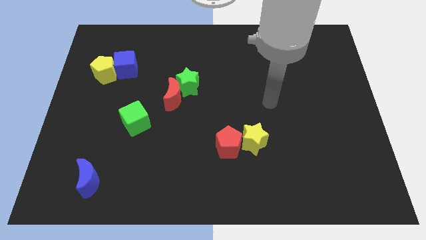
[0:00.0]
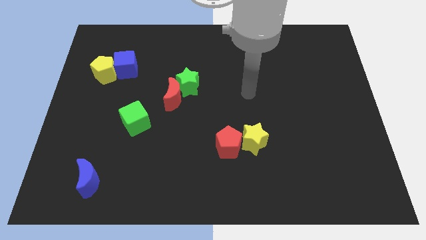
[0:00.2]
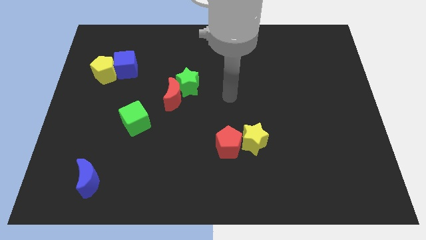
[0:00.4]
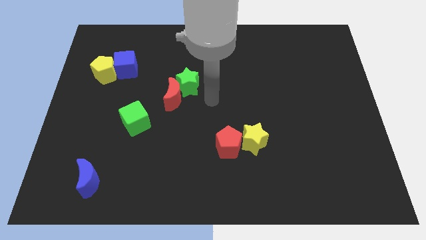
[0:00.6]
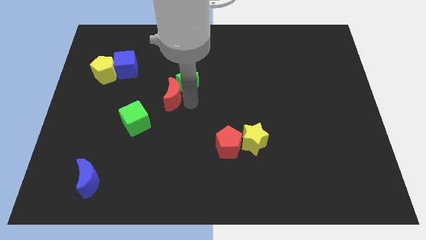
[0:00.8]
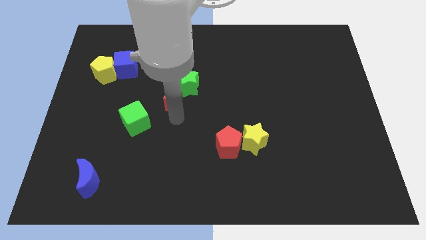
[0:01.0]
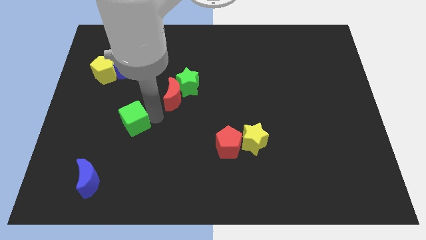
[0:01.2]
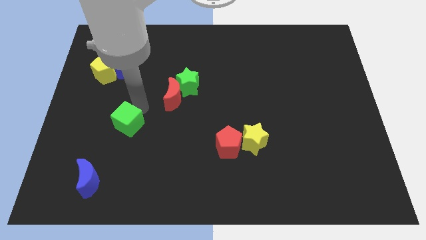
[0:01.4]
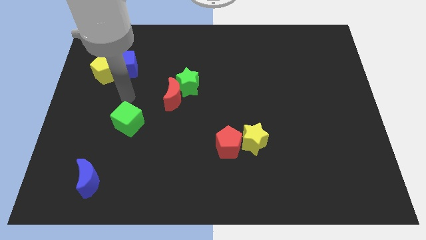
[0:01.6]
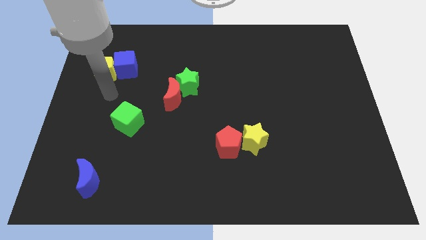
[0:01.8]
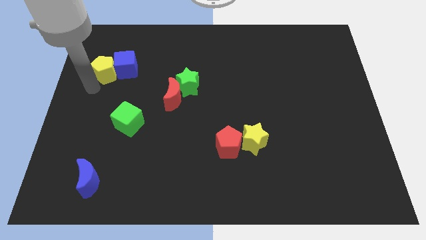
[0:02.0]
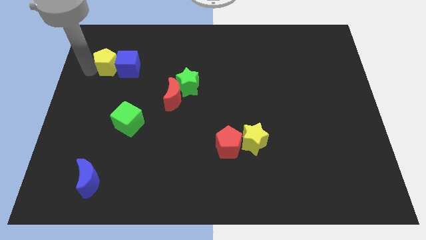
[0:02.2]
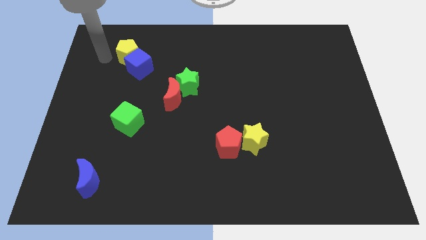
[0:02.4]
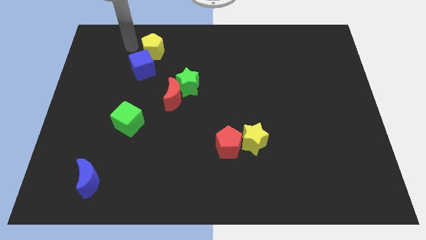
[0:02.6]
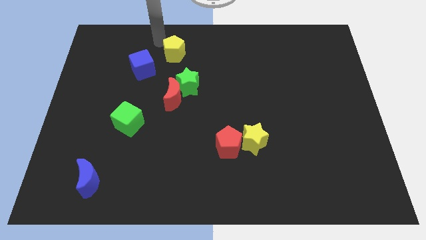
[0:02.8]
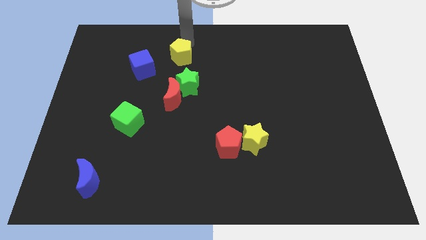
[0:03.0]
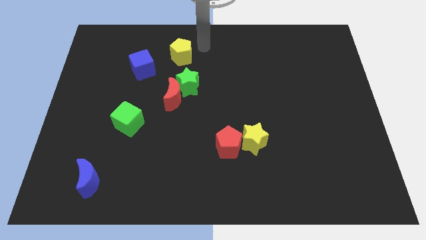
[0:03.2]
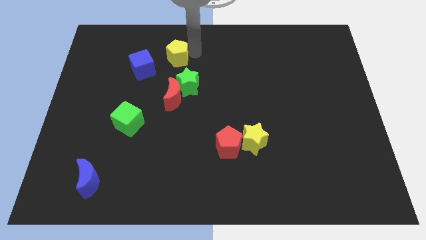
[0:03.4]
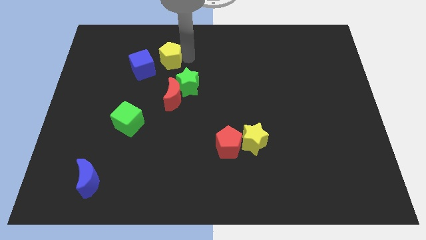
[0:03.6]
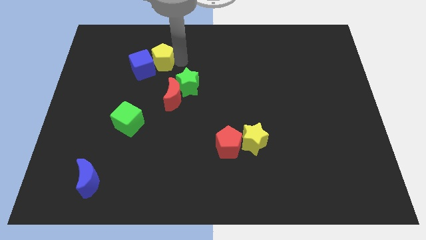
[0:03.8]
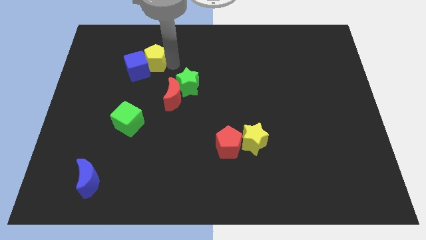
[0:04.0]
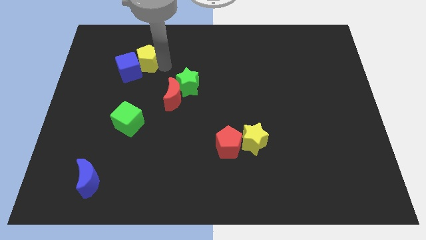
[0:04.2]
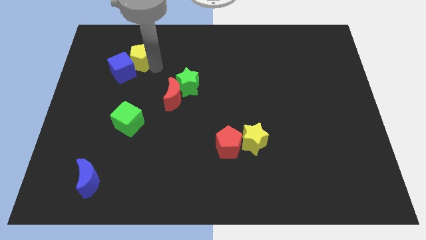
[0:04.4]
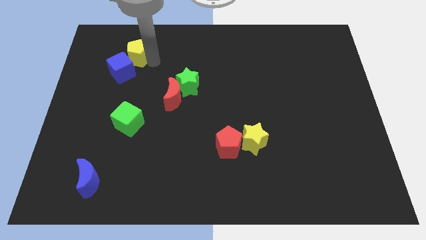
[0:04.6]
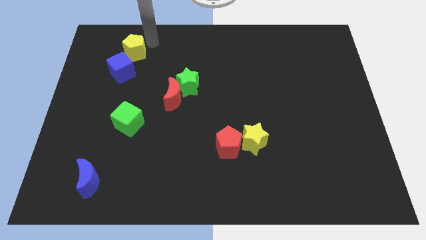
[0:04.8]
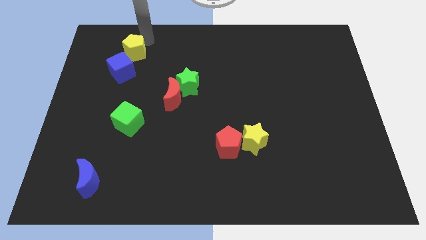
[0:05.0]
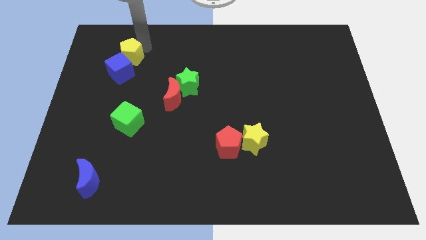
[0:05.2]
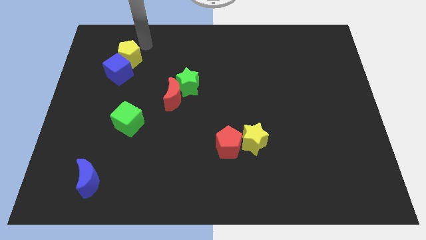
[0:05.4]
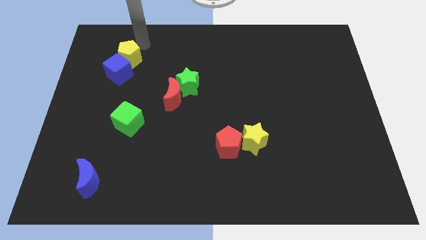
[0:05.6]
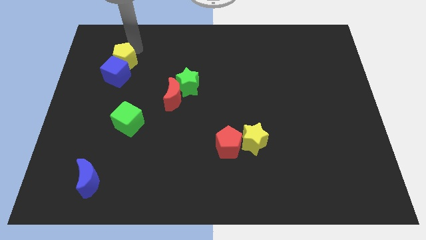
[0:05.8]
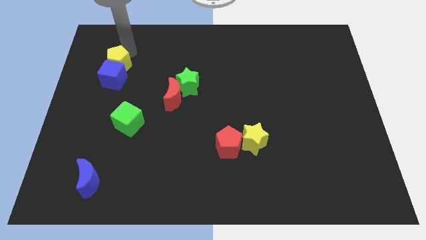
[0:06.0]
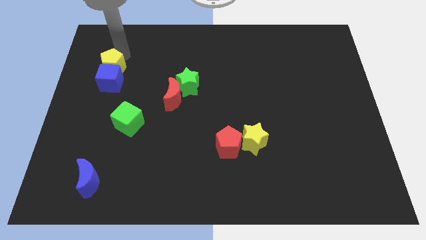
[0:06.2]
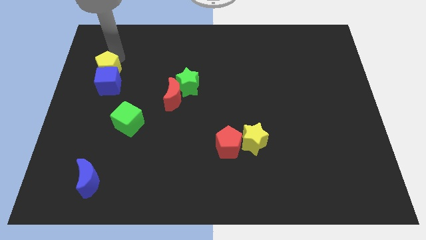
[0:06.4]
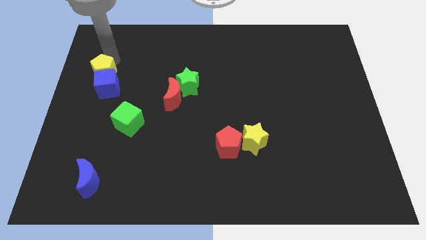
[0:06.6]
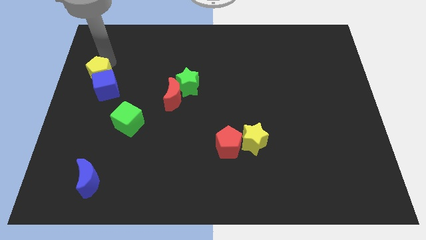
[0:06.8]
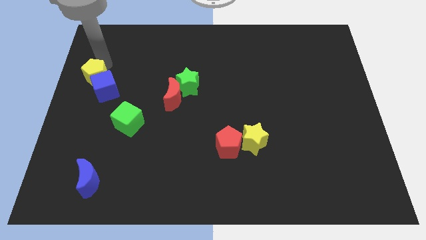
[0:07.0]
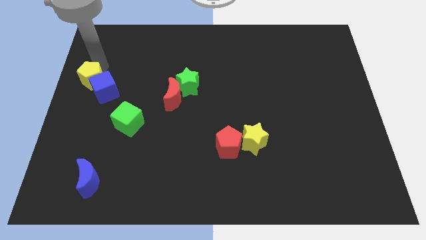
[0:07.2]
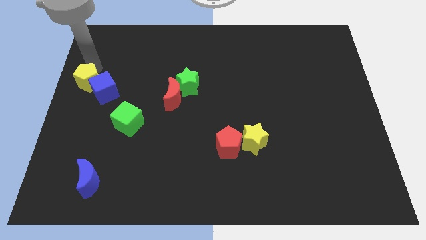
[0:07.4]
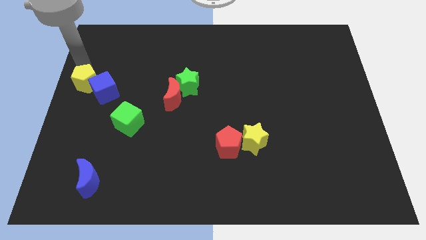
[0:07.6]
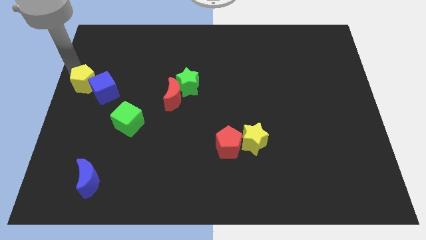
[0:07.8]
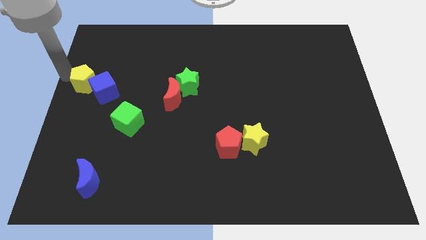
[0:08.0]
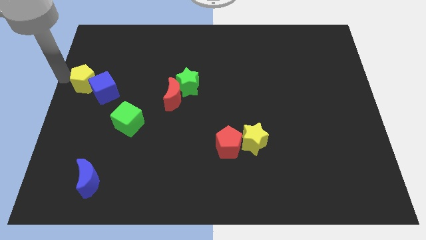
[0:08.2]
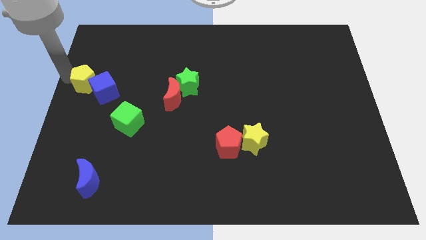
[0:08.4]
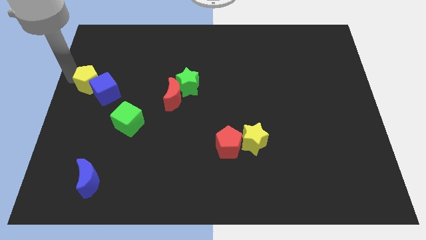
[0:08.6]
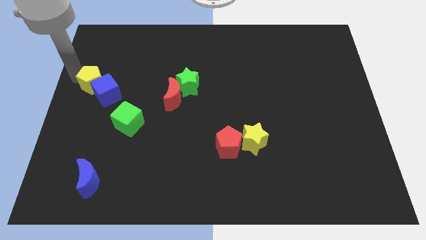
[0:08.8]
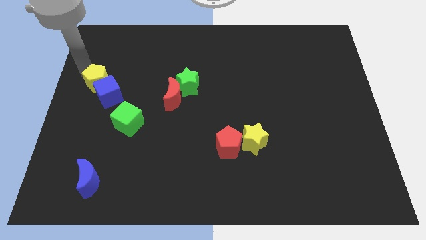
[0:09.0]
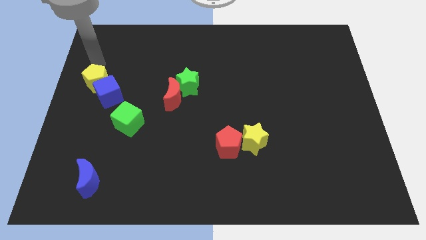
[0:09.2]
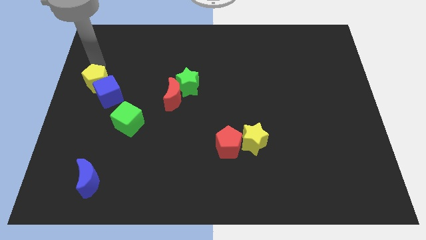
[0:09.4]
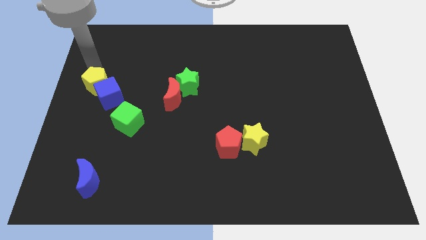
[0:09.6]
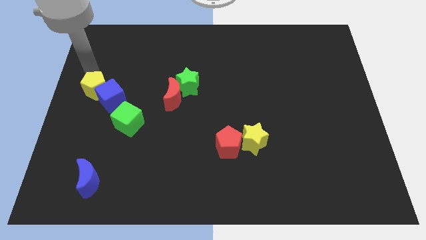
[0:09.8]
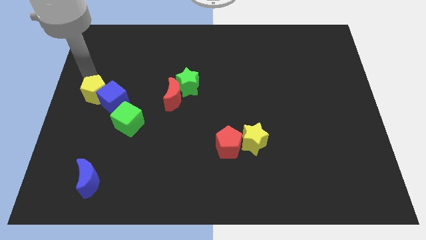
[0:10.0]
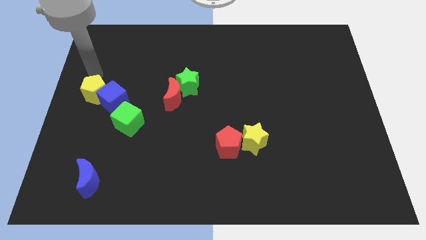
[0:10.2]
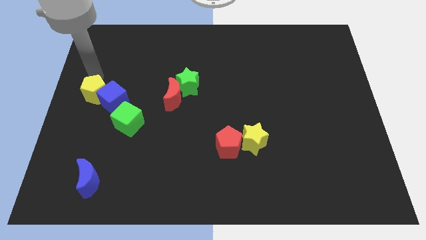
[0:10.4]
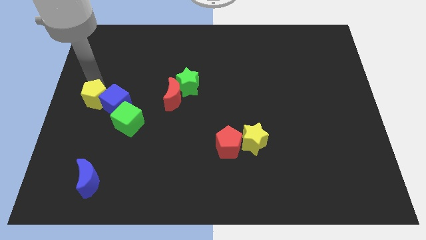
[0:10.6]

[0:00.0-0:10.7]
slightly move the yellow pentagon downwards

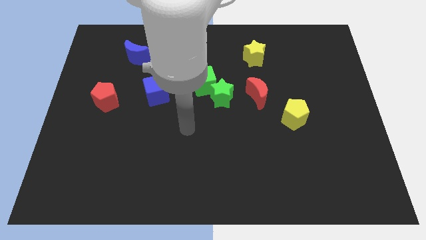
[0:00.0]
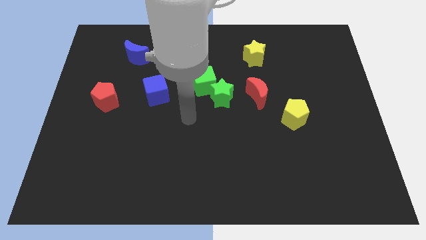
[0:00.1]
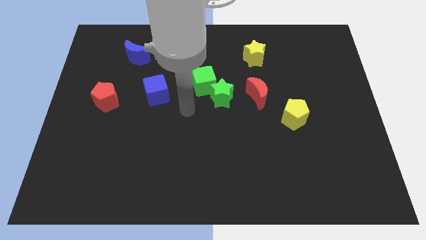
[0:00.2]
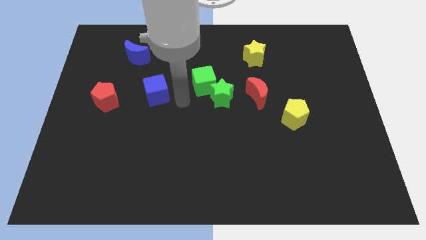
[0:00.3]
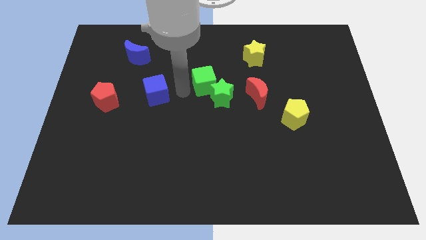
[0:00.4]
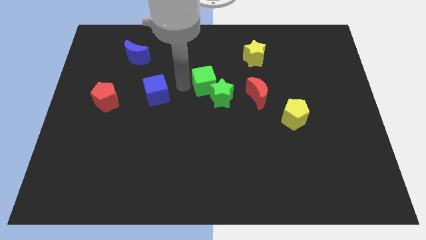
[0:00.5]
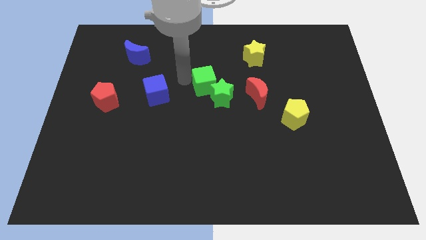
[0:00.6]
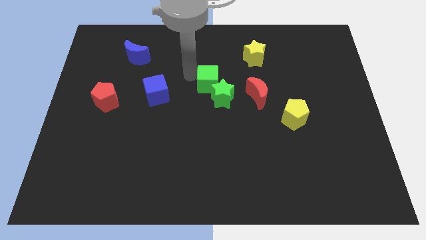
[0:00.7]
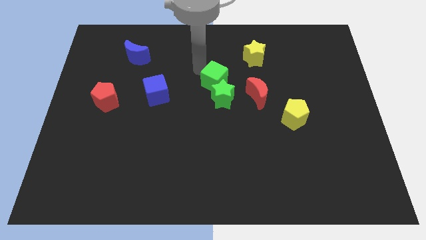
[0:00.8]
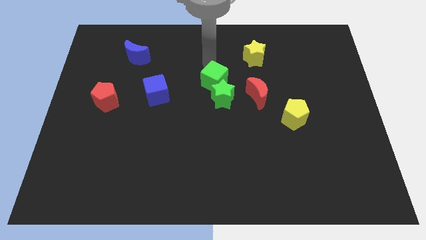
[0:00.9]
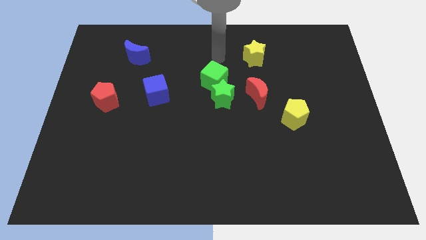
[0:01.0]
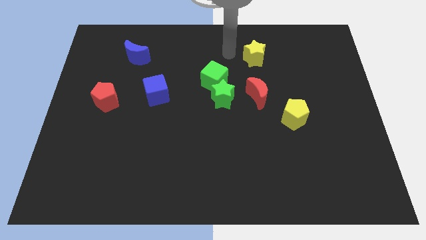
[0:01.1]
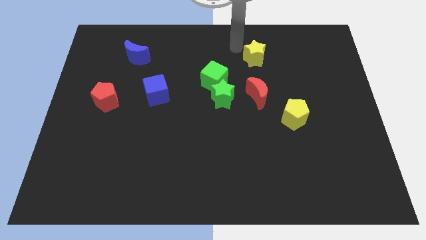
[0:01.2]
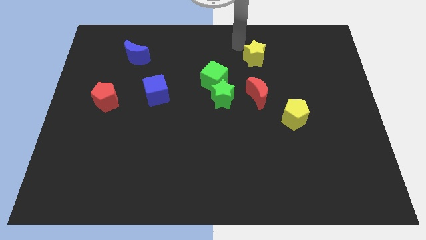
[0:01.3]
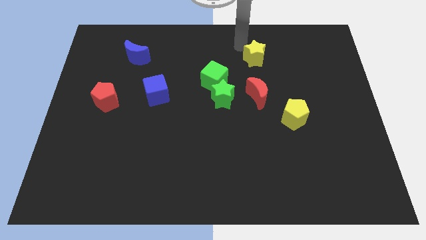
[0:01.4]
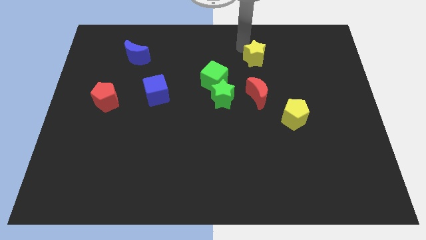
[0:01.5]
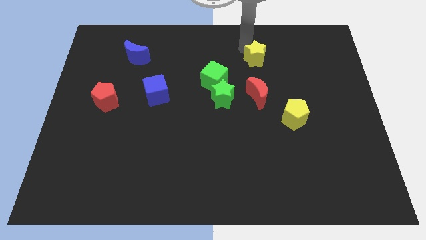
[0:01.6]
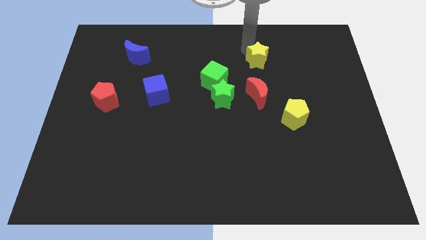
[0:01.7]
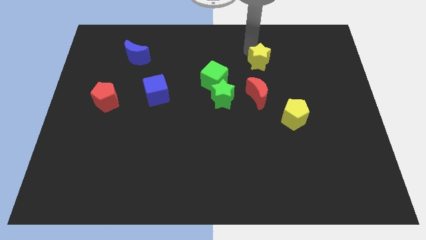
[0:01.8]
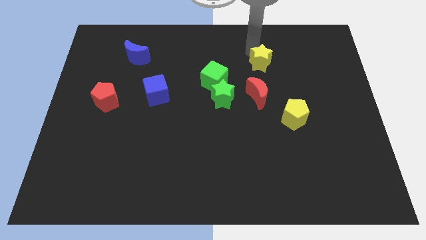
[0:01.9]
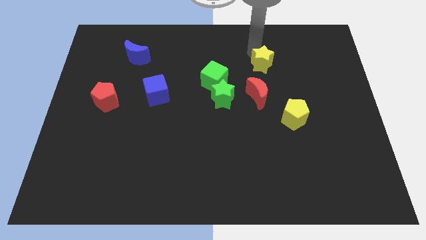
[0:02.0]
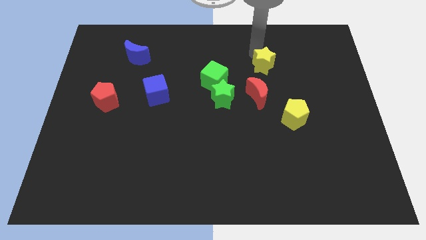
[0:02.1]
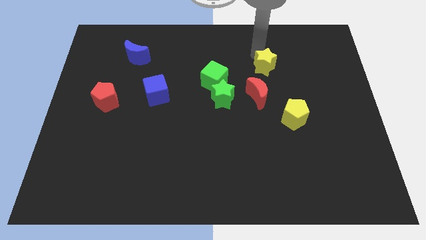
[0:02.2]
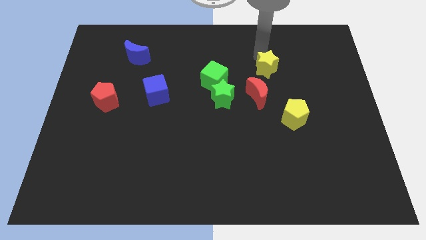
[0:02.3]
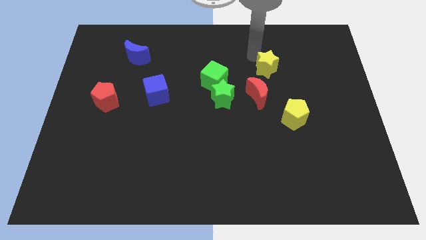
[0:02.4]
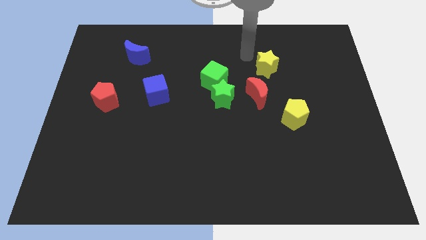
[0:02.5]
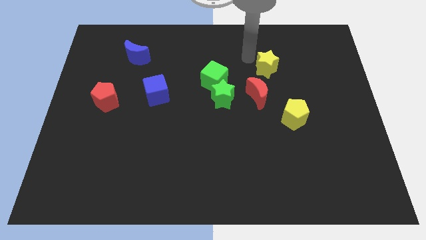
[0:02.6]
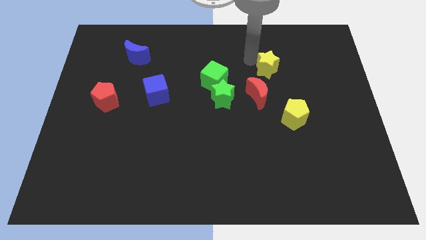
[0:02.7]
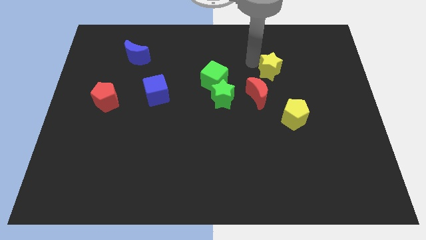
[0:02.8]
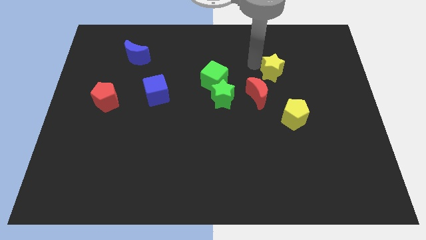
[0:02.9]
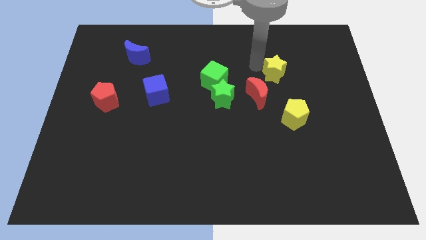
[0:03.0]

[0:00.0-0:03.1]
push the yellow star a little bit diagonally down and right
